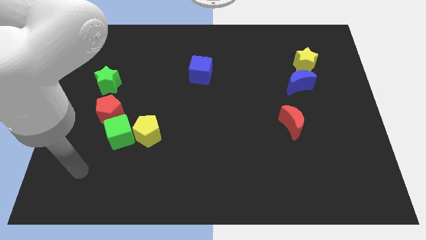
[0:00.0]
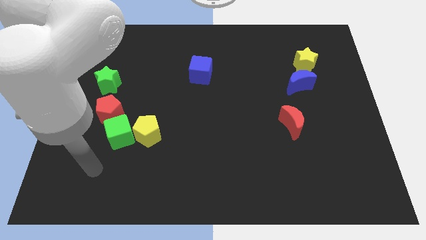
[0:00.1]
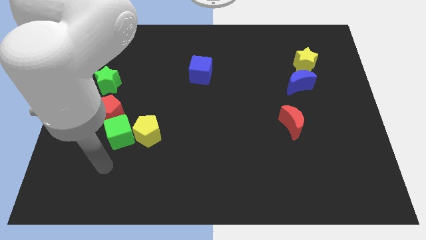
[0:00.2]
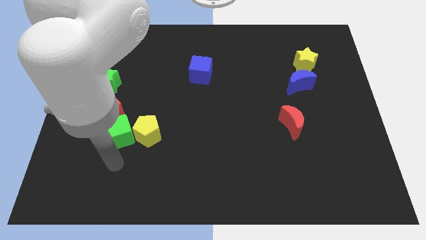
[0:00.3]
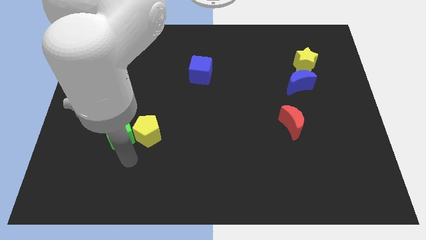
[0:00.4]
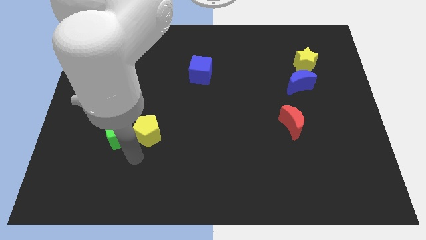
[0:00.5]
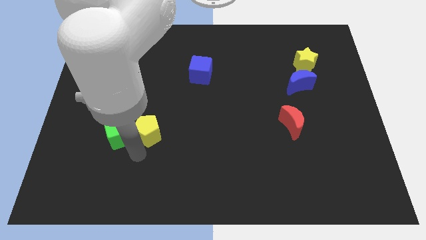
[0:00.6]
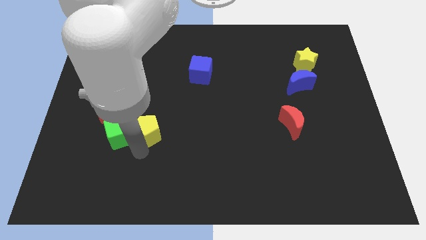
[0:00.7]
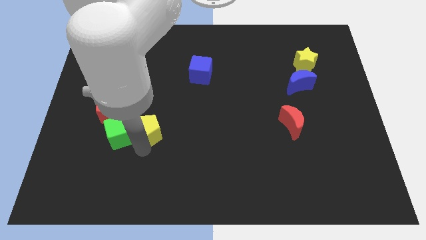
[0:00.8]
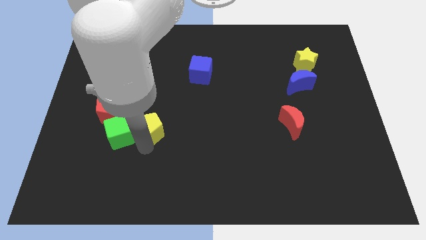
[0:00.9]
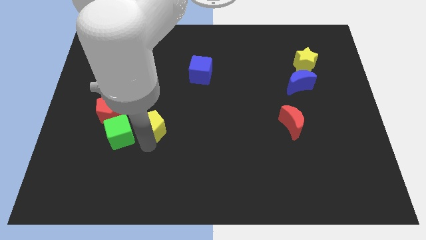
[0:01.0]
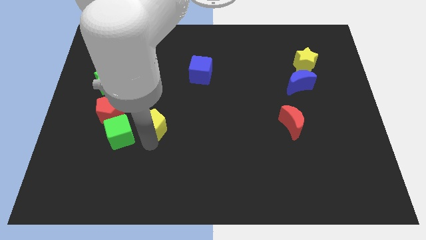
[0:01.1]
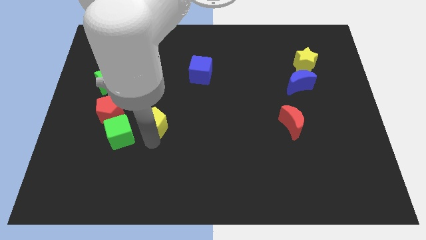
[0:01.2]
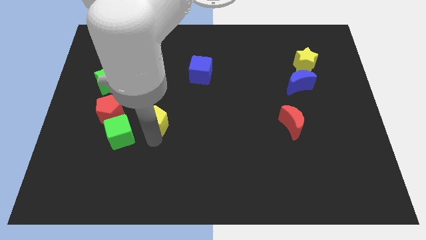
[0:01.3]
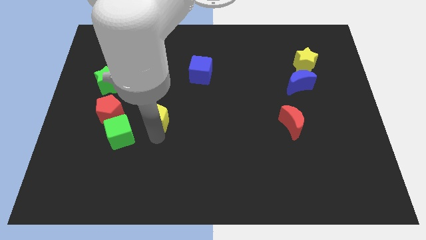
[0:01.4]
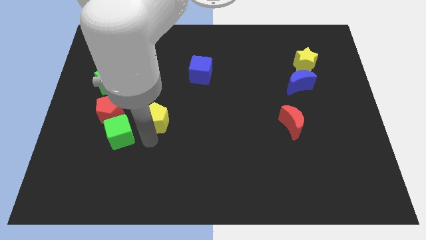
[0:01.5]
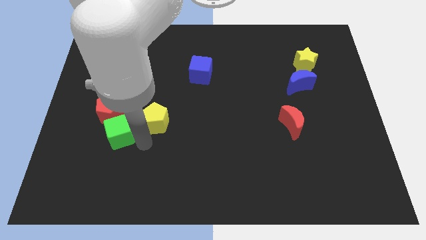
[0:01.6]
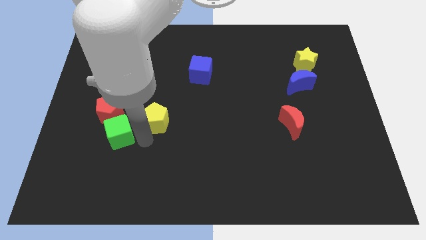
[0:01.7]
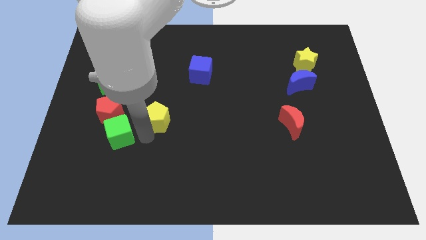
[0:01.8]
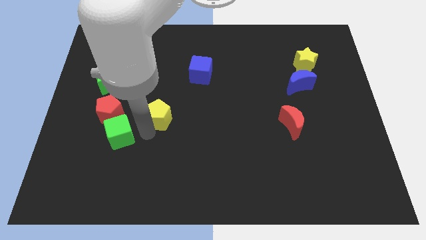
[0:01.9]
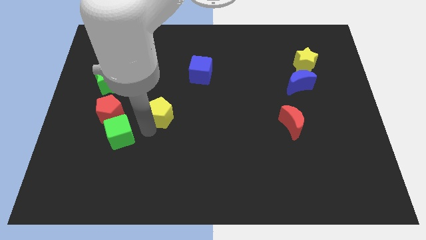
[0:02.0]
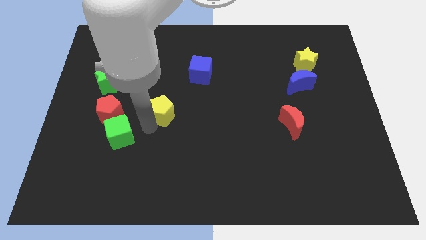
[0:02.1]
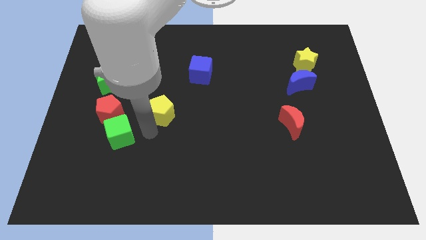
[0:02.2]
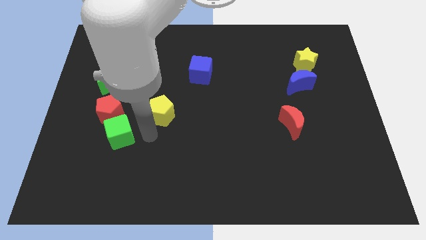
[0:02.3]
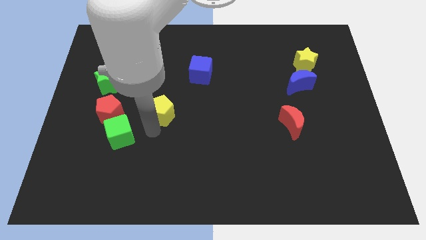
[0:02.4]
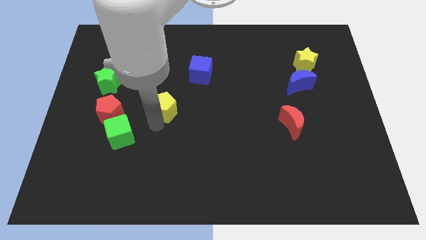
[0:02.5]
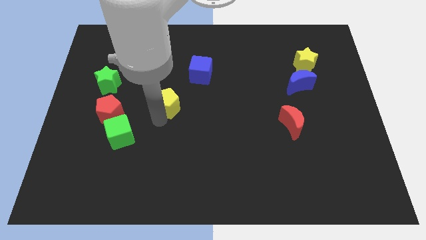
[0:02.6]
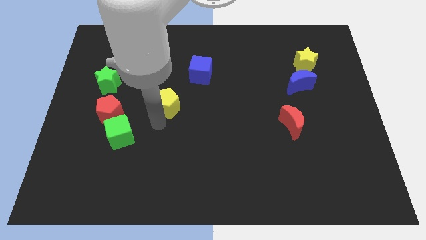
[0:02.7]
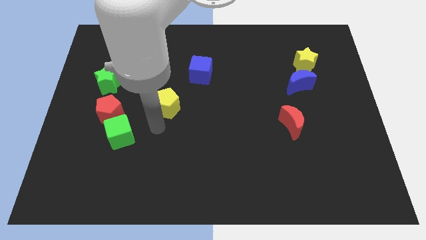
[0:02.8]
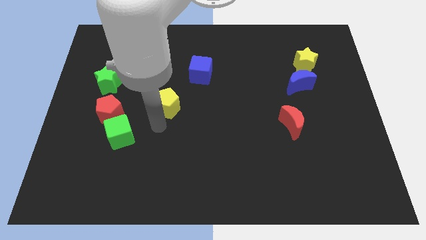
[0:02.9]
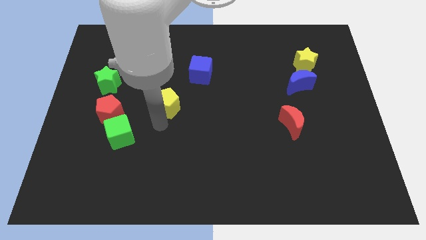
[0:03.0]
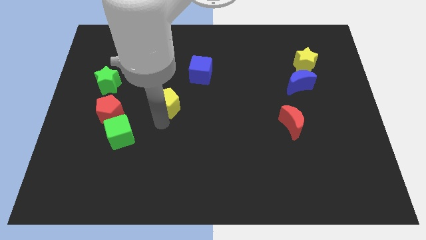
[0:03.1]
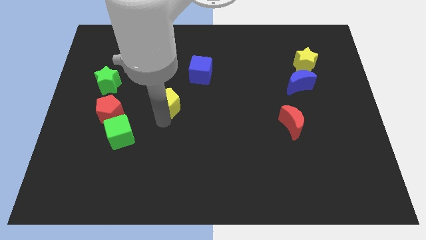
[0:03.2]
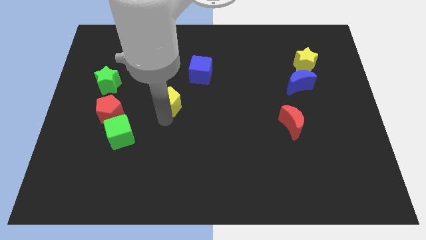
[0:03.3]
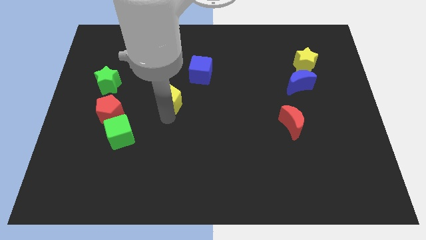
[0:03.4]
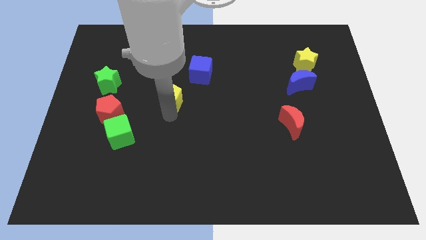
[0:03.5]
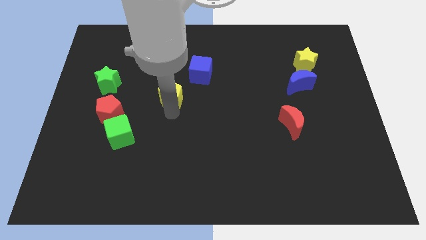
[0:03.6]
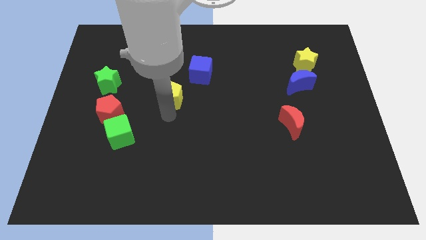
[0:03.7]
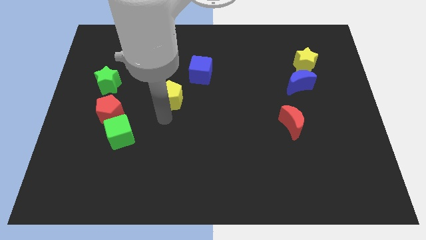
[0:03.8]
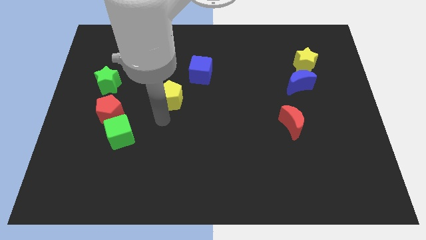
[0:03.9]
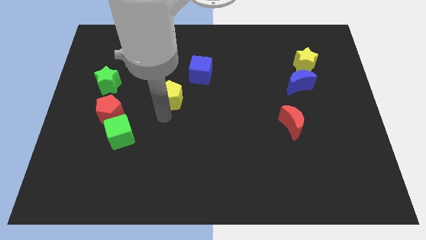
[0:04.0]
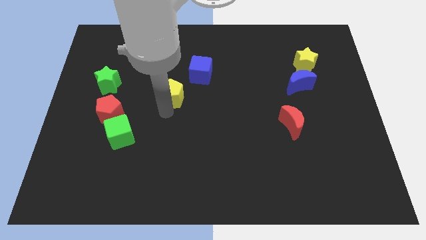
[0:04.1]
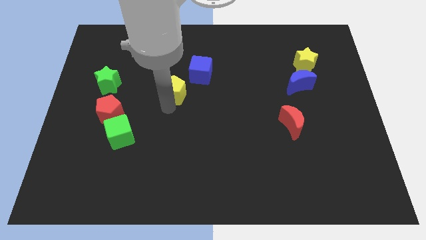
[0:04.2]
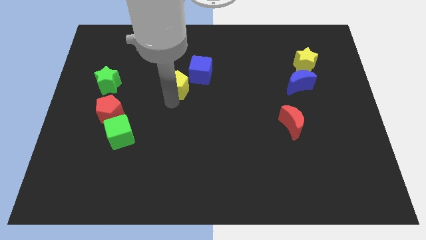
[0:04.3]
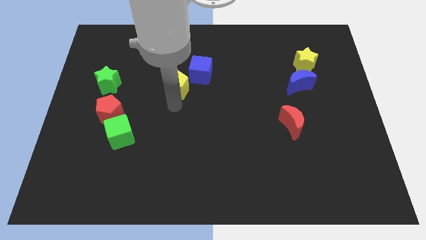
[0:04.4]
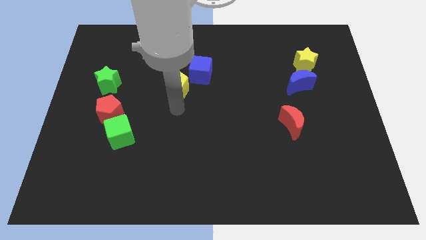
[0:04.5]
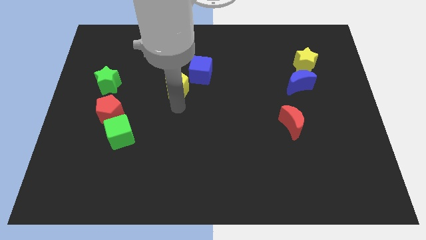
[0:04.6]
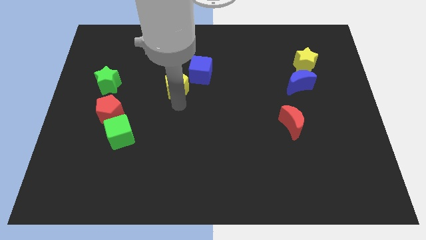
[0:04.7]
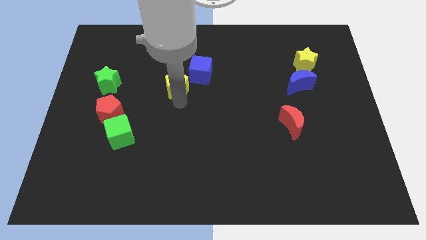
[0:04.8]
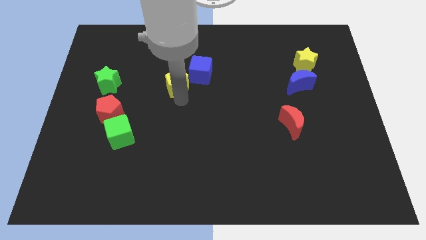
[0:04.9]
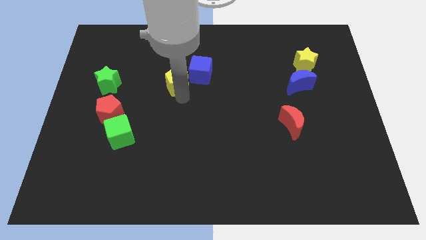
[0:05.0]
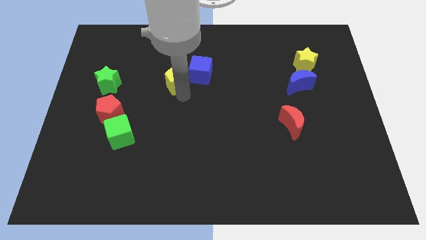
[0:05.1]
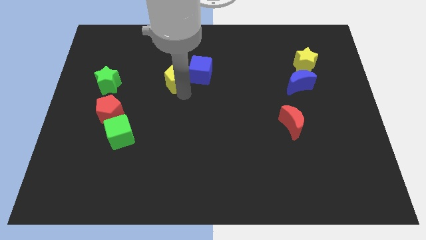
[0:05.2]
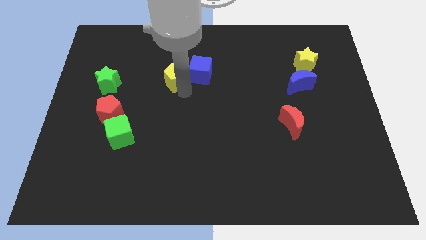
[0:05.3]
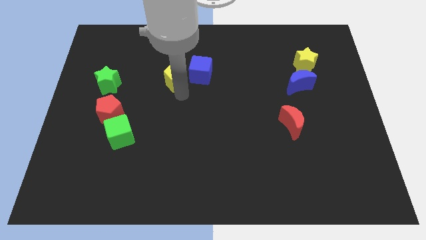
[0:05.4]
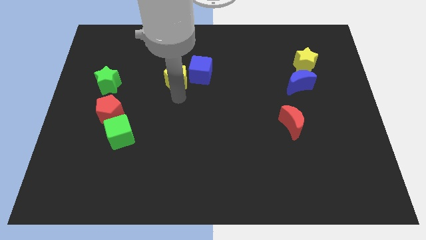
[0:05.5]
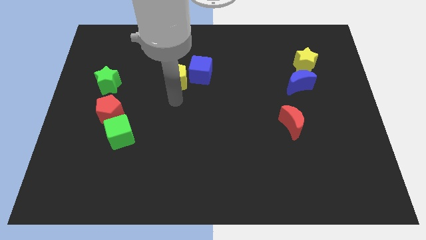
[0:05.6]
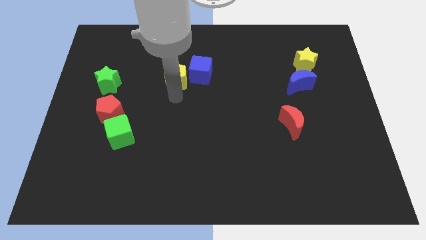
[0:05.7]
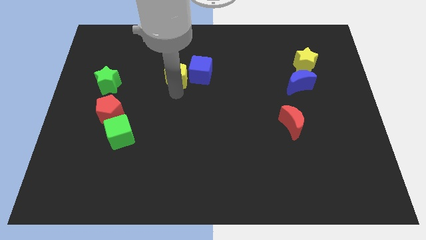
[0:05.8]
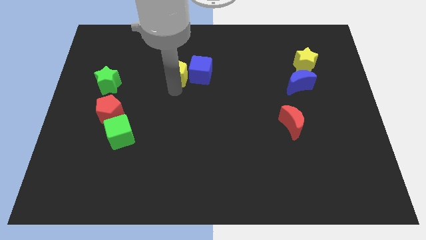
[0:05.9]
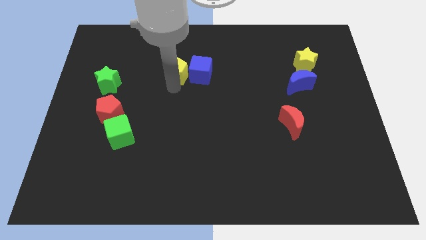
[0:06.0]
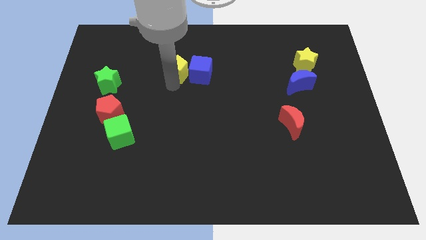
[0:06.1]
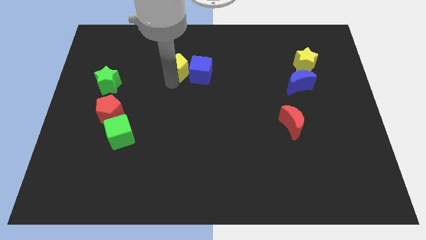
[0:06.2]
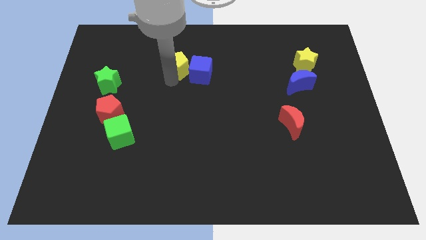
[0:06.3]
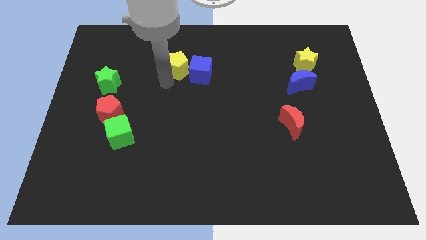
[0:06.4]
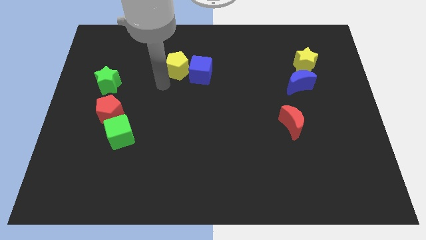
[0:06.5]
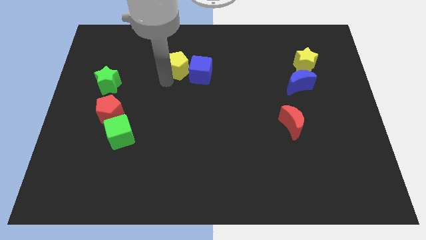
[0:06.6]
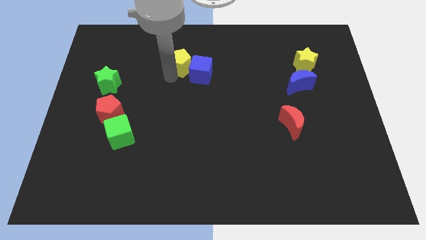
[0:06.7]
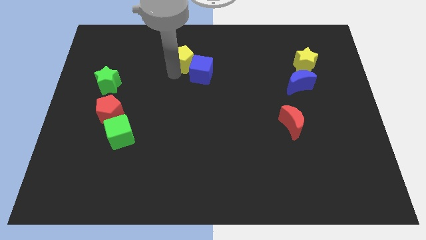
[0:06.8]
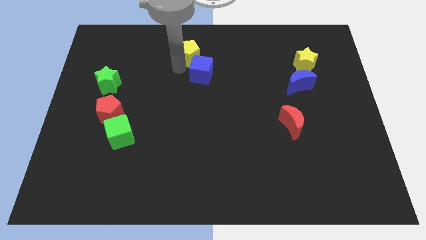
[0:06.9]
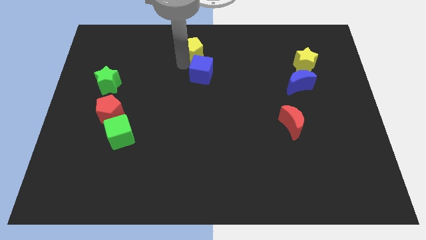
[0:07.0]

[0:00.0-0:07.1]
push the yellow pentagon to the top side

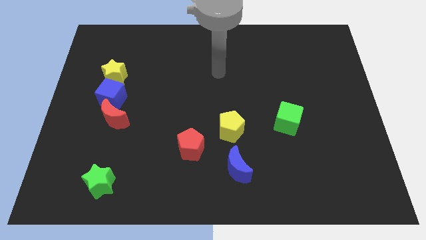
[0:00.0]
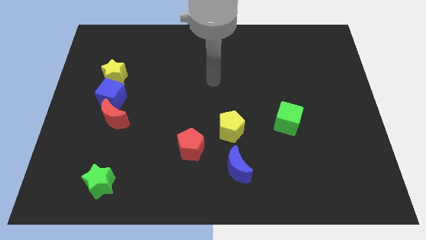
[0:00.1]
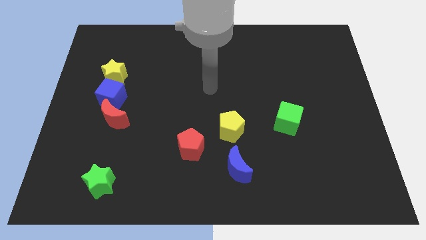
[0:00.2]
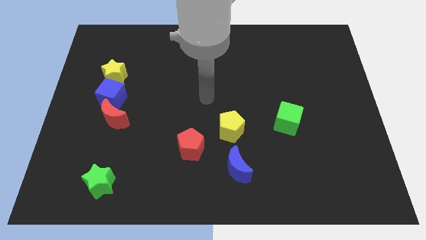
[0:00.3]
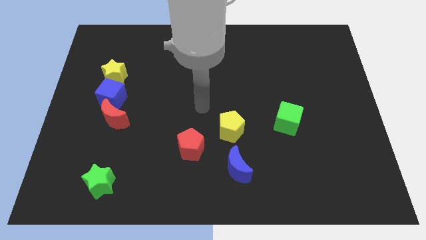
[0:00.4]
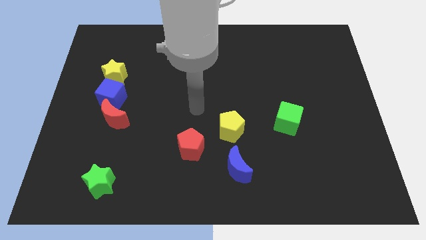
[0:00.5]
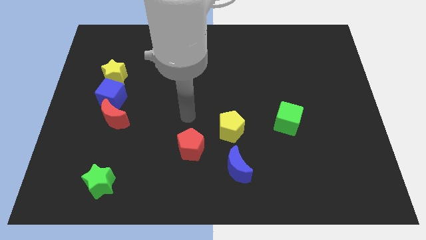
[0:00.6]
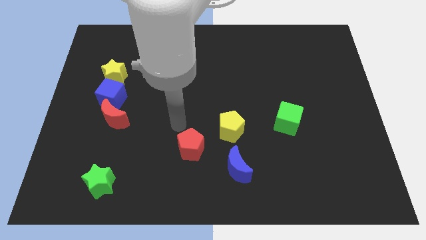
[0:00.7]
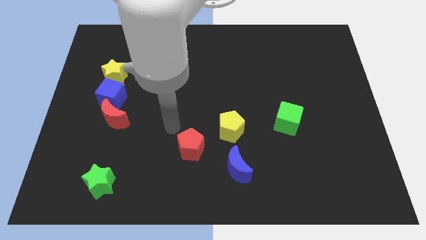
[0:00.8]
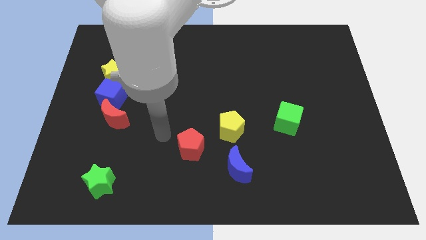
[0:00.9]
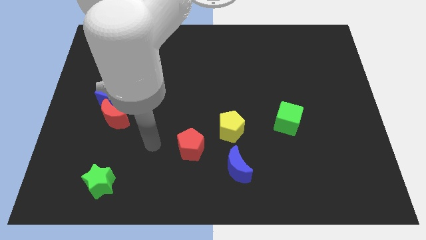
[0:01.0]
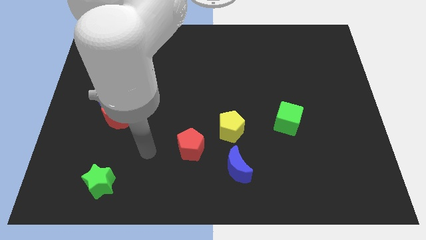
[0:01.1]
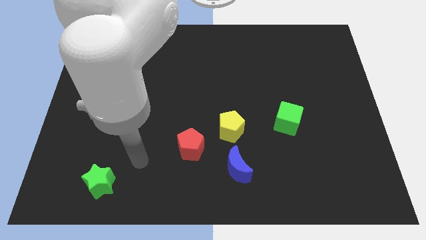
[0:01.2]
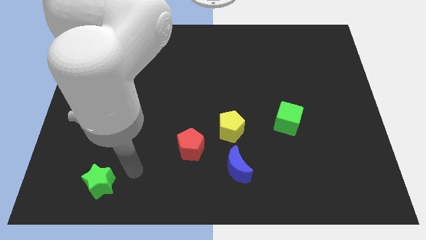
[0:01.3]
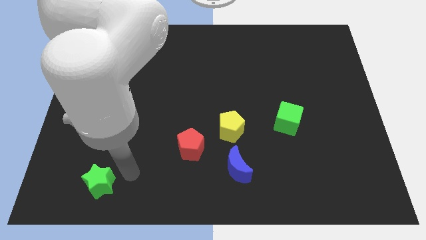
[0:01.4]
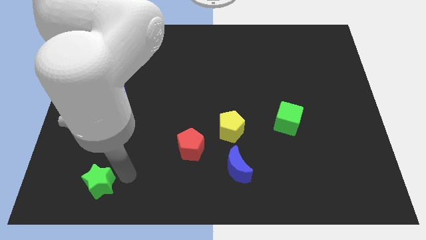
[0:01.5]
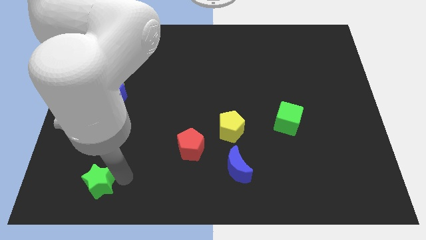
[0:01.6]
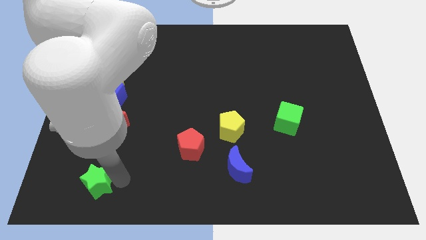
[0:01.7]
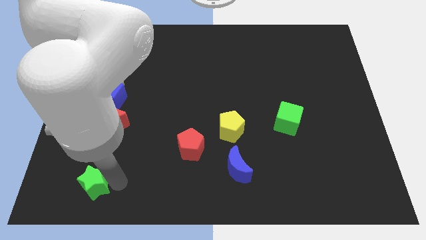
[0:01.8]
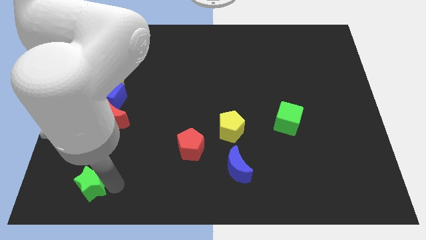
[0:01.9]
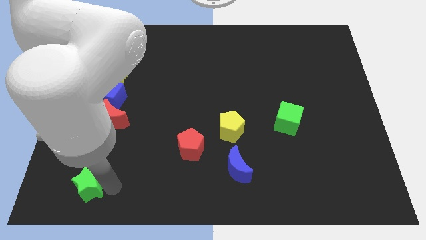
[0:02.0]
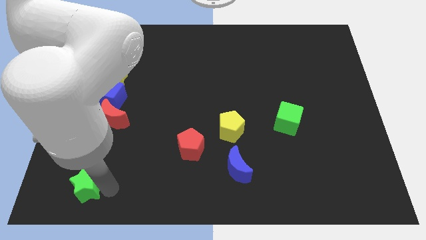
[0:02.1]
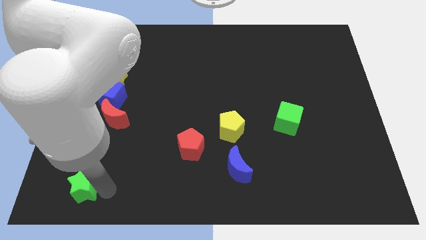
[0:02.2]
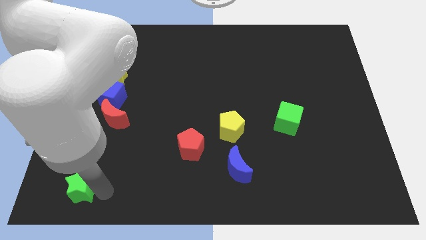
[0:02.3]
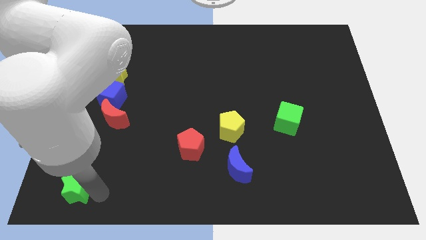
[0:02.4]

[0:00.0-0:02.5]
move the green star to the bottom left corner
